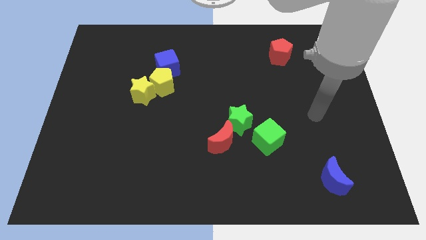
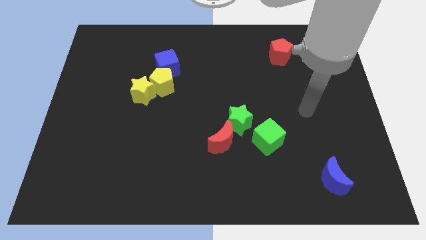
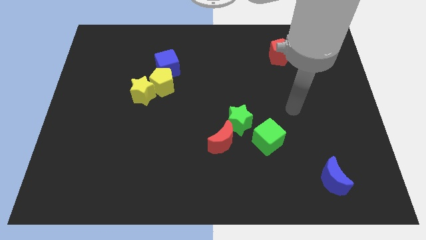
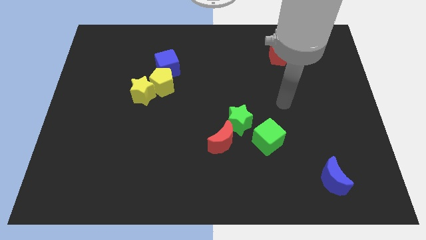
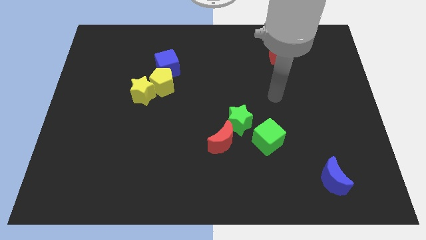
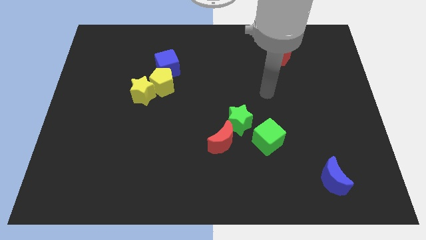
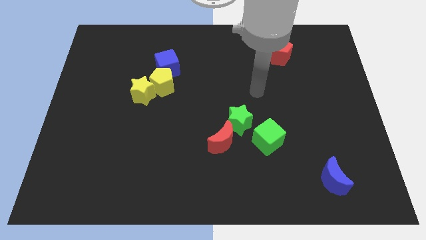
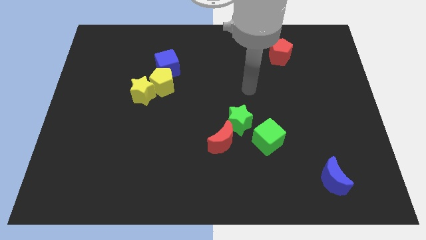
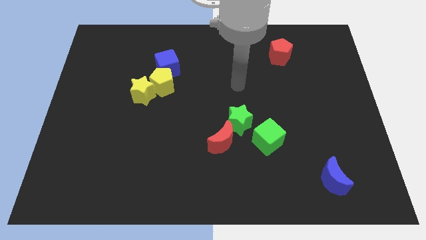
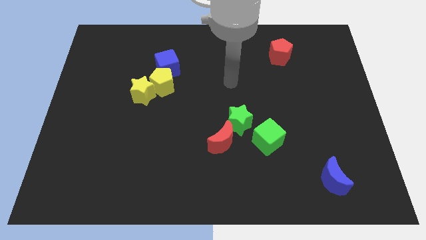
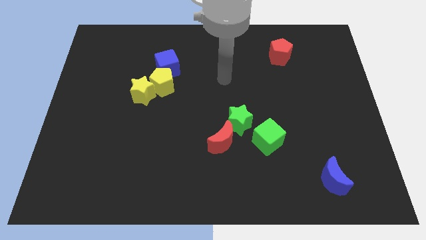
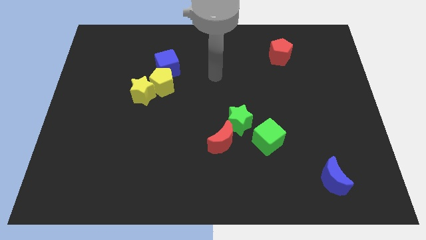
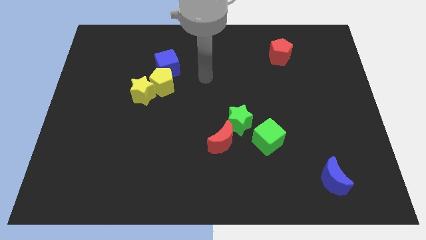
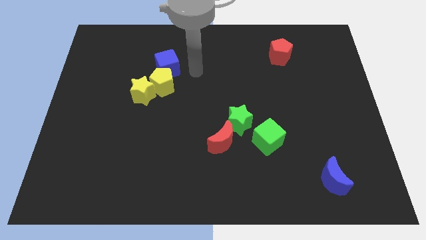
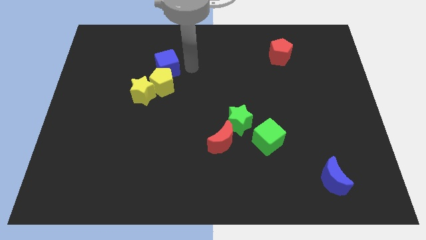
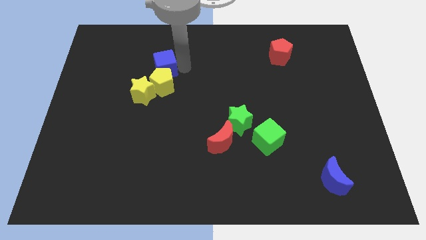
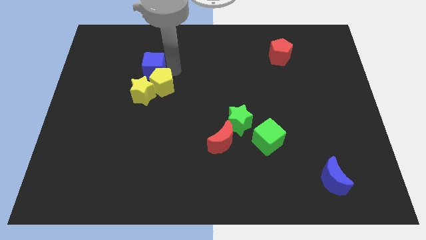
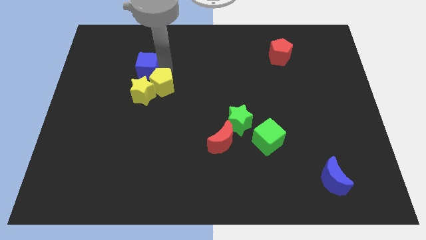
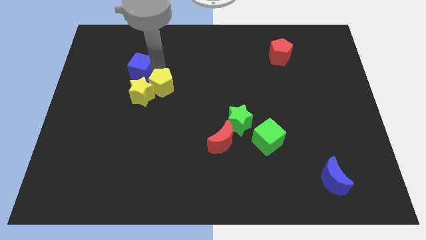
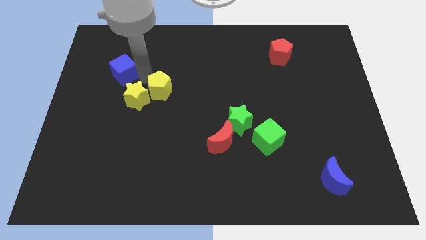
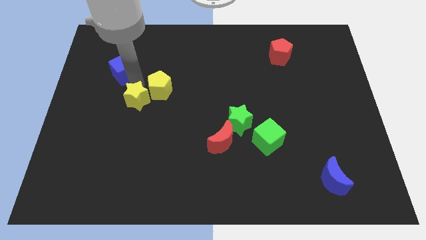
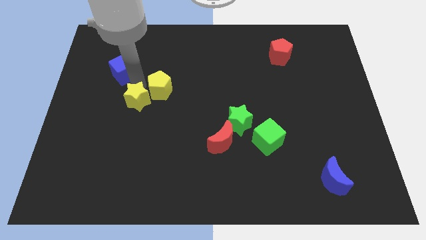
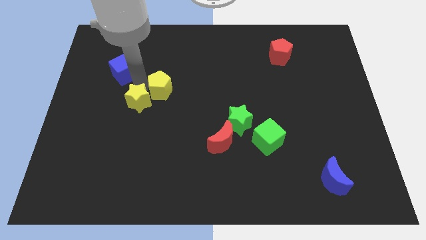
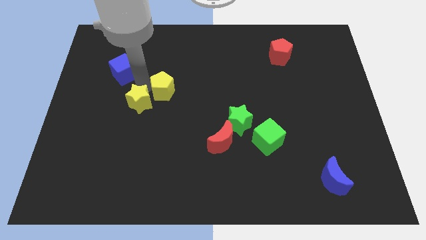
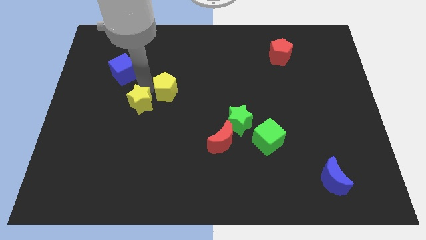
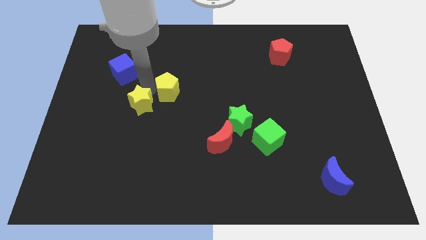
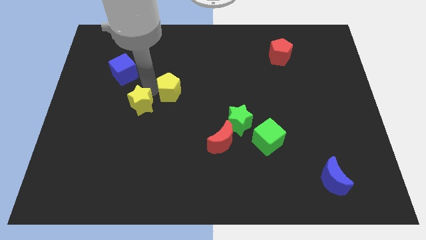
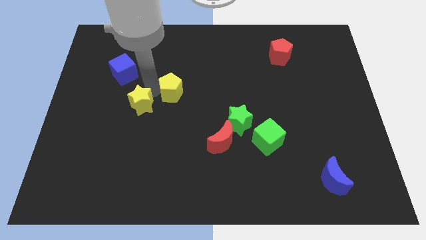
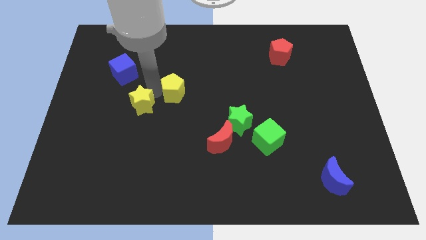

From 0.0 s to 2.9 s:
pull the yellow pentagon apart from the yellow star and blue cube

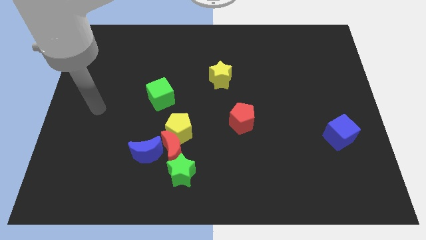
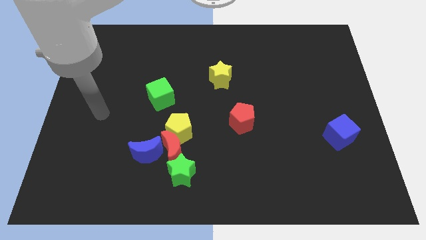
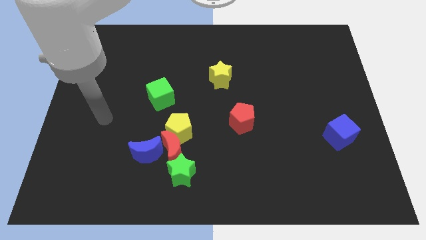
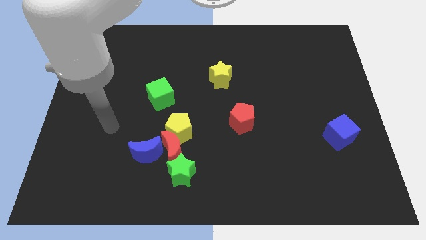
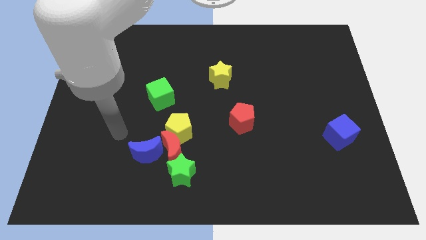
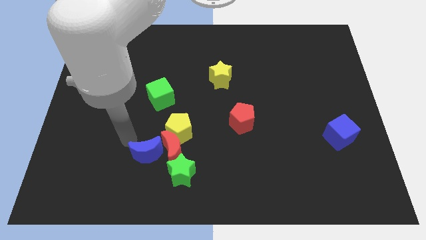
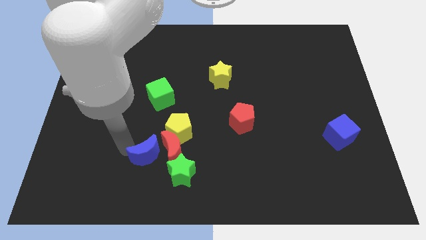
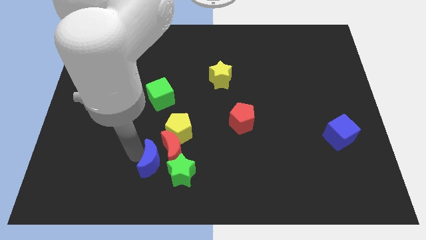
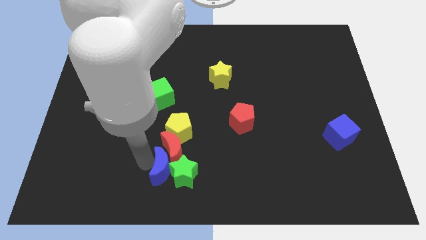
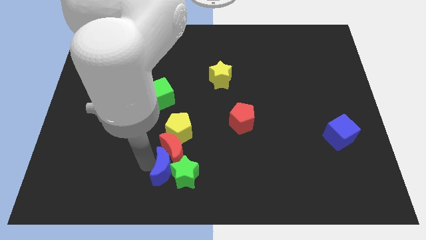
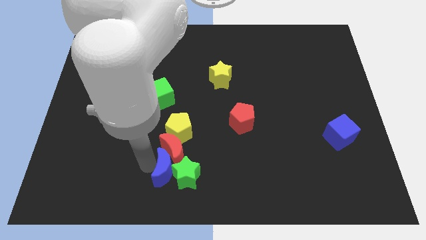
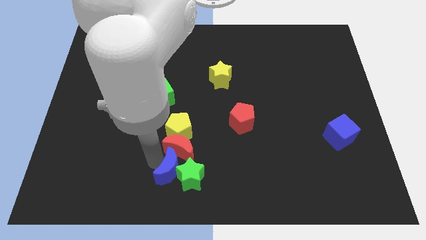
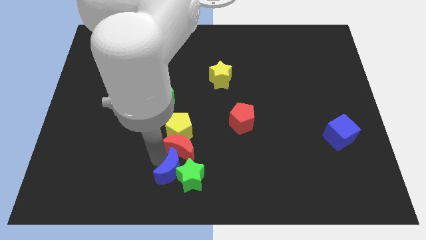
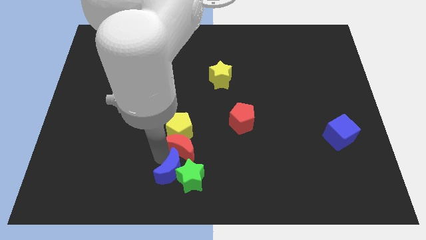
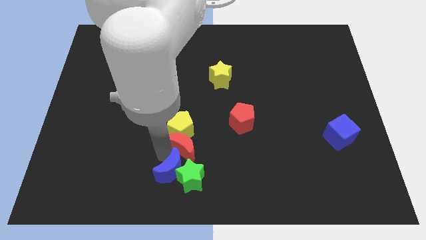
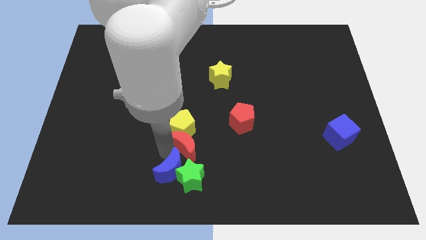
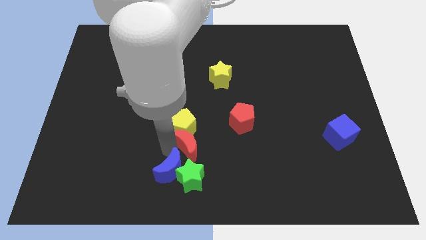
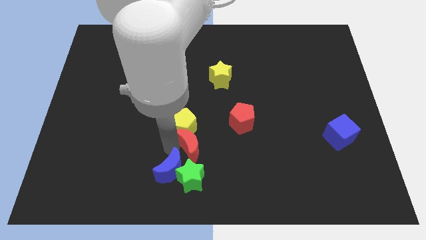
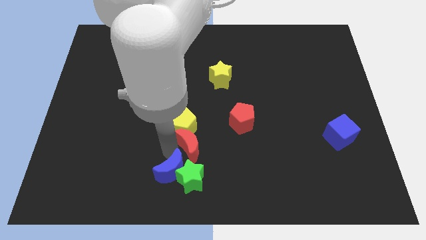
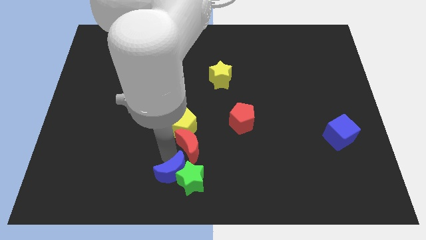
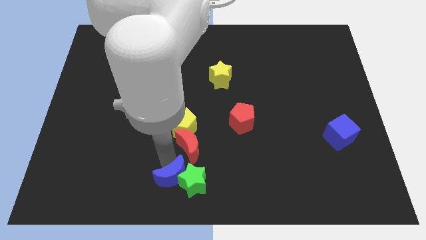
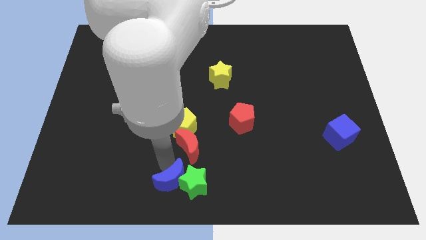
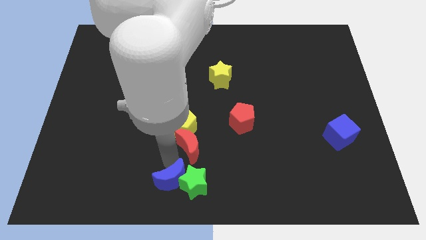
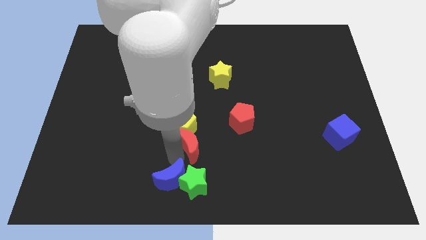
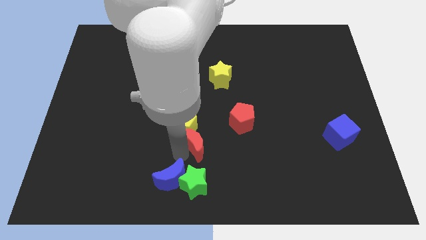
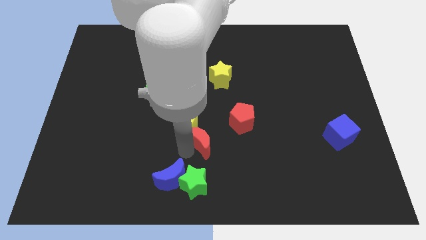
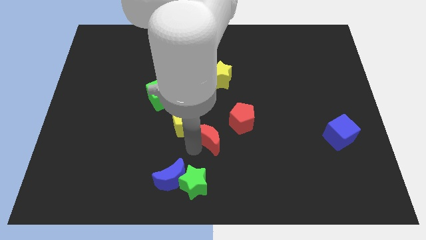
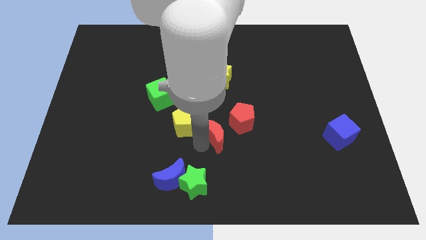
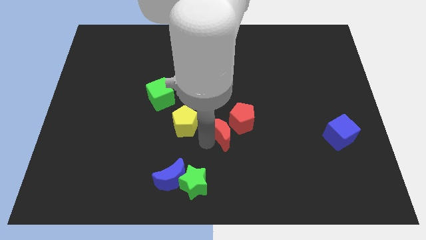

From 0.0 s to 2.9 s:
separate the red moon from the group of blocks

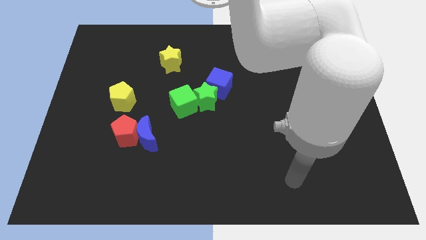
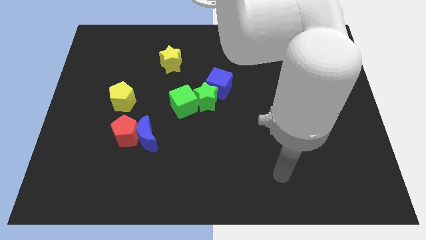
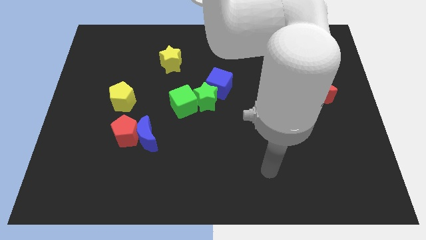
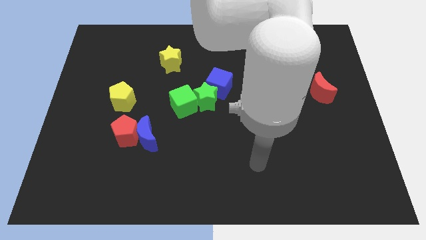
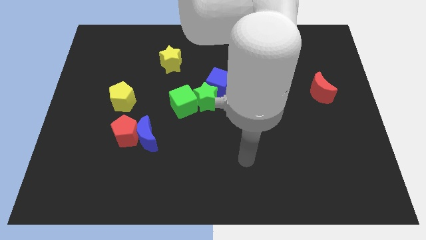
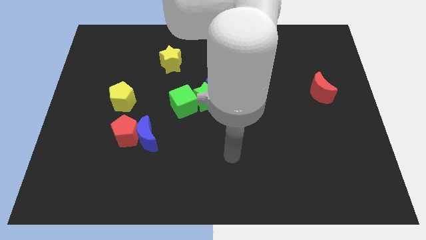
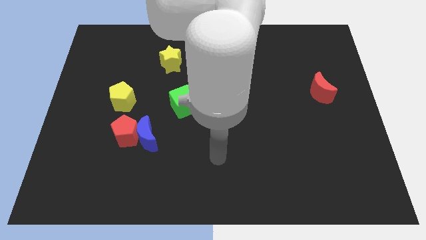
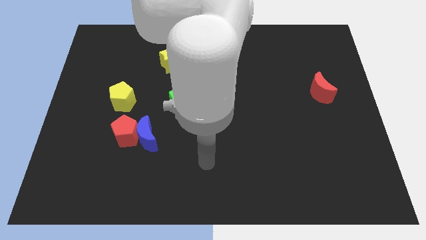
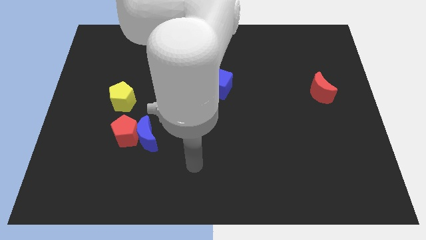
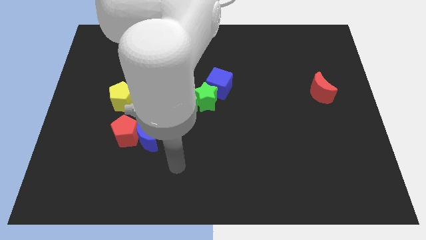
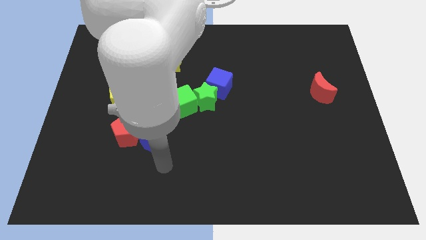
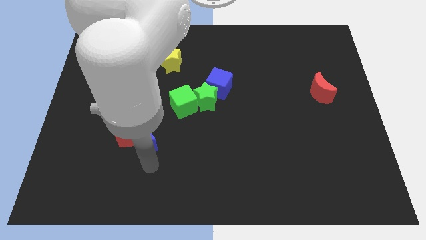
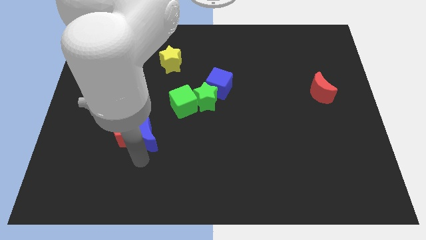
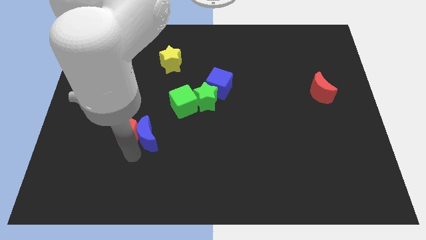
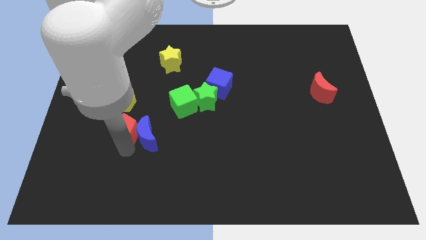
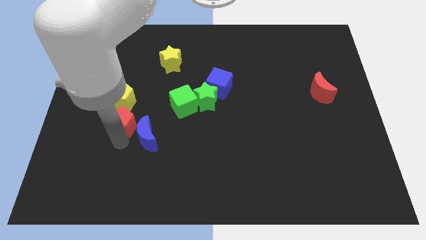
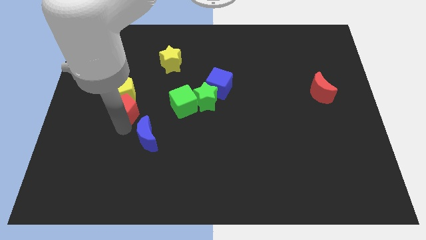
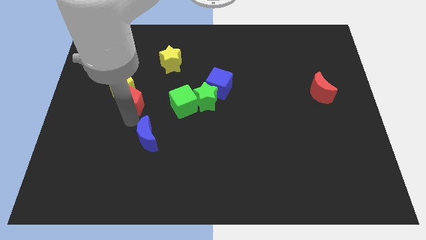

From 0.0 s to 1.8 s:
pull the blue moon apart from the red pentagon

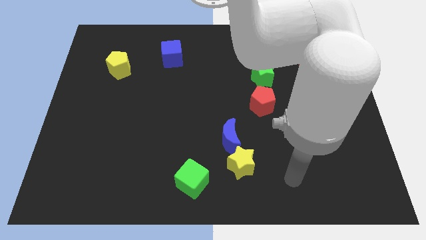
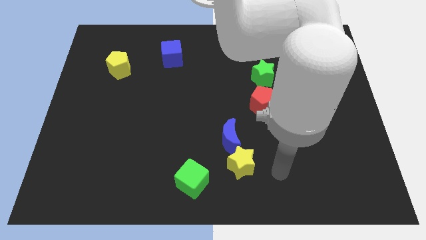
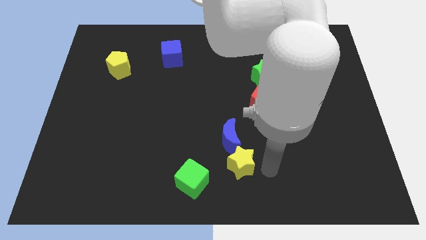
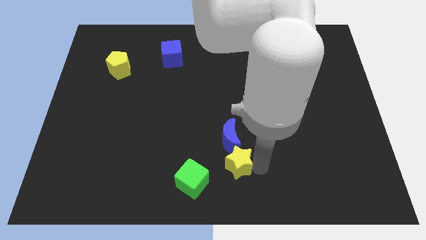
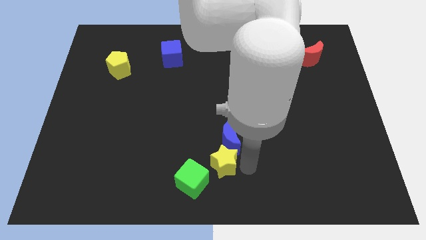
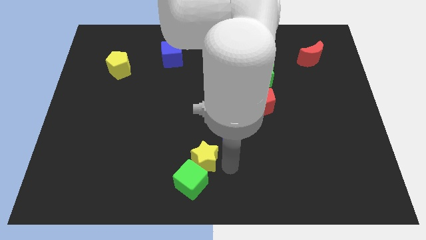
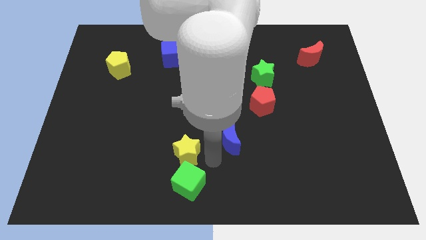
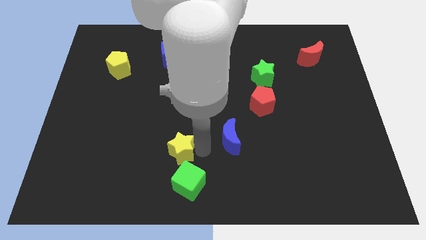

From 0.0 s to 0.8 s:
pull the blue moon apart from the yellow star

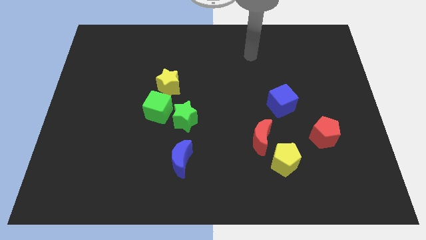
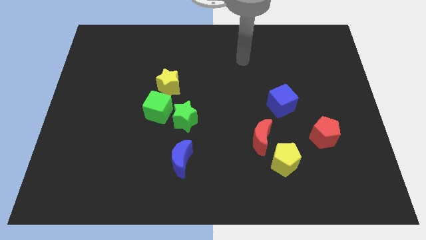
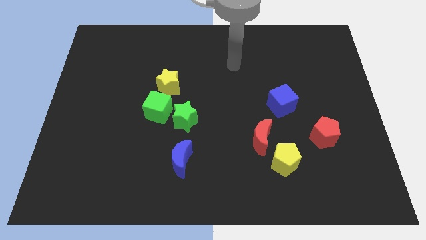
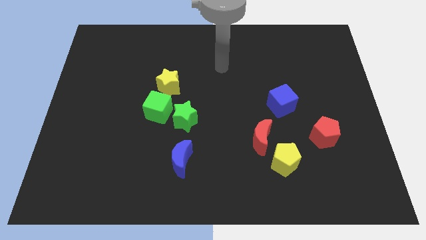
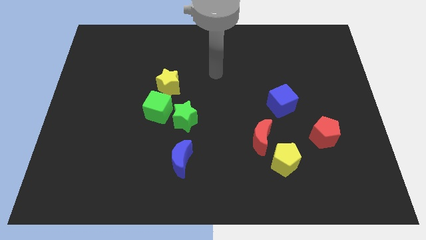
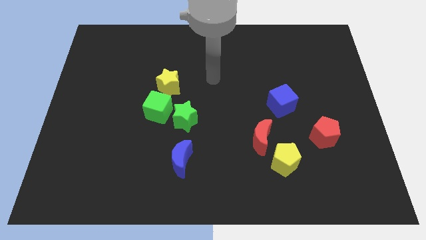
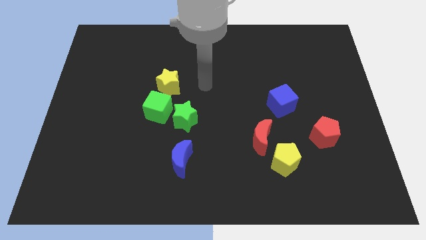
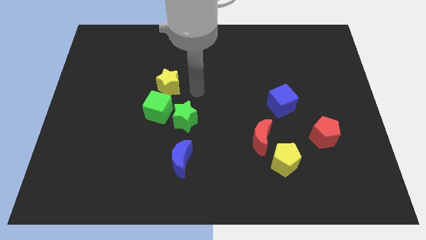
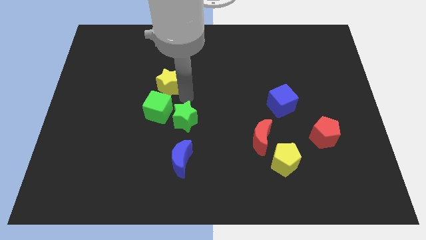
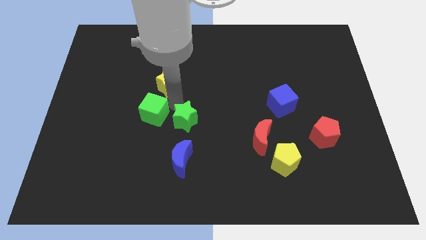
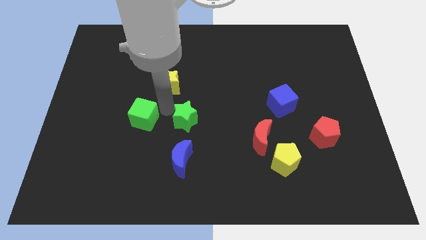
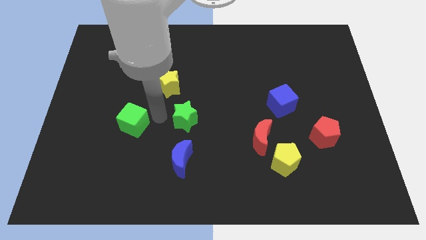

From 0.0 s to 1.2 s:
separate the green star from the green cube
